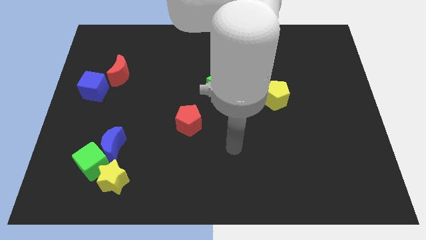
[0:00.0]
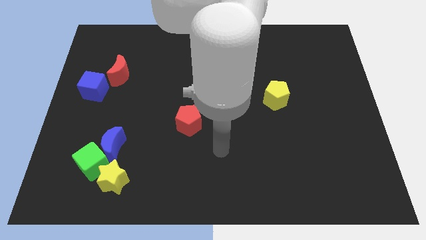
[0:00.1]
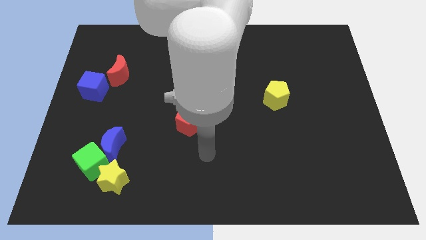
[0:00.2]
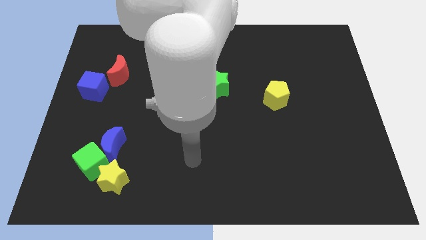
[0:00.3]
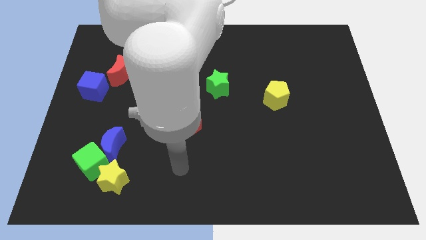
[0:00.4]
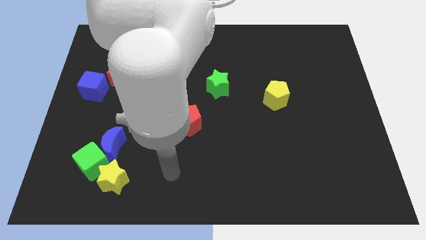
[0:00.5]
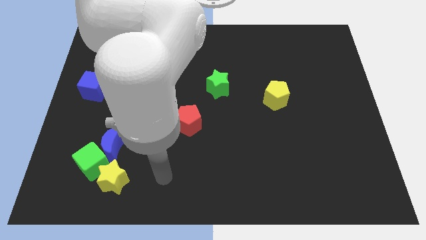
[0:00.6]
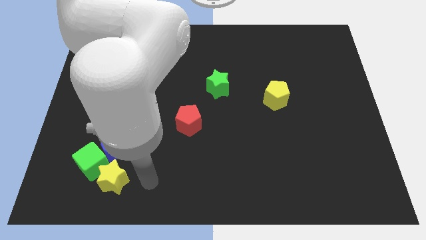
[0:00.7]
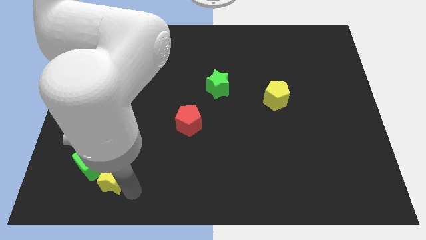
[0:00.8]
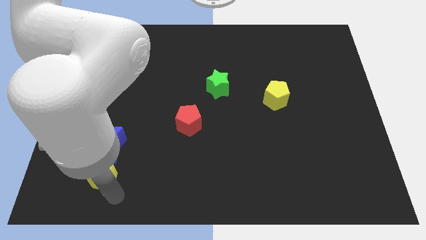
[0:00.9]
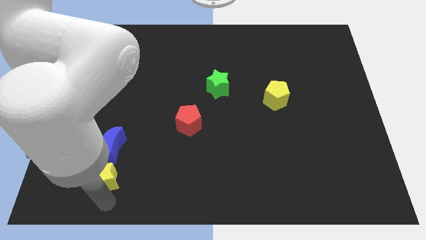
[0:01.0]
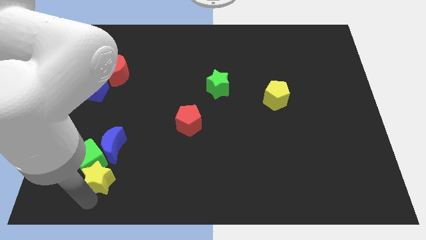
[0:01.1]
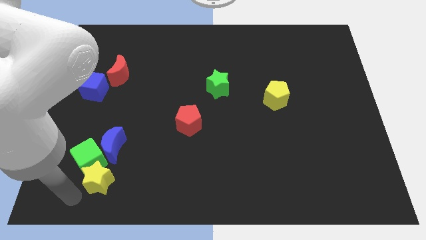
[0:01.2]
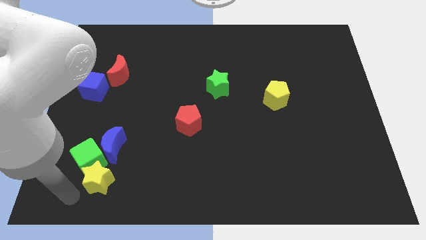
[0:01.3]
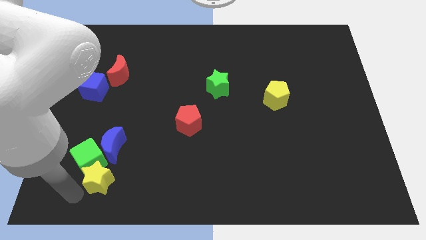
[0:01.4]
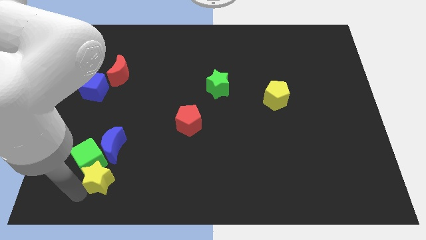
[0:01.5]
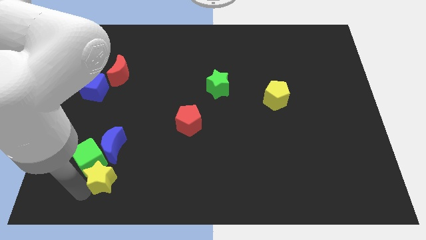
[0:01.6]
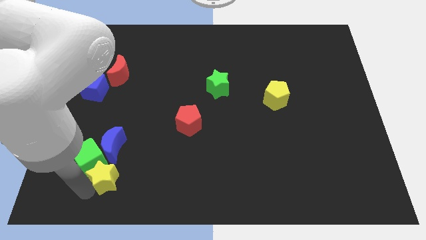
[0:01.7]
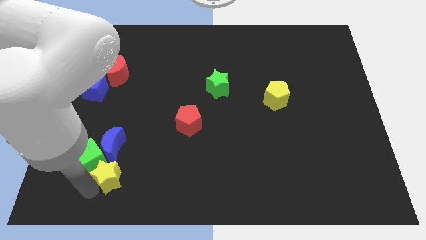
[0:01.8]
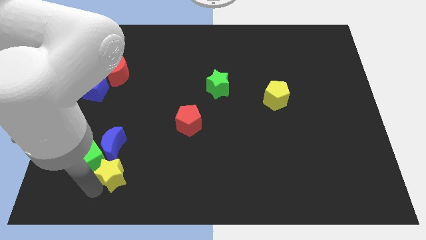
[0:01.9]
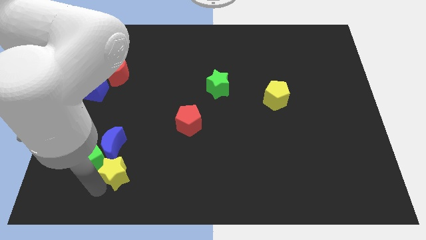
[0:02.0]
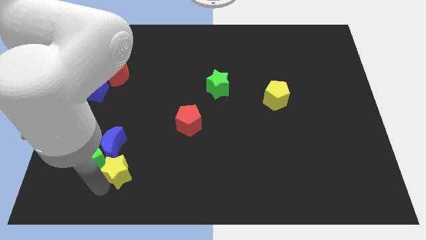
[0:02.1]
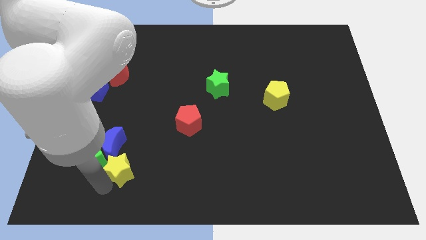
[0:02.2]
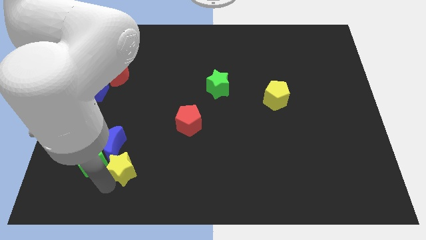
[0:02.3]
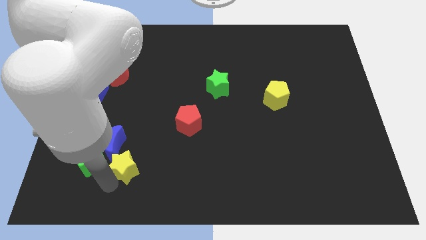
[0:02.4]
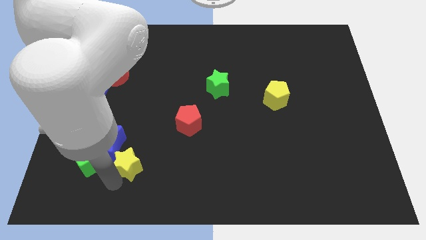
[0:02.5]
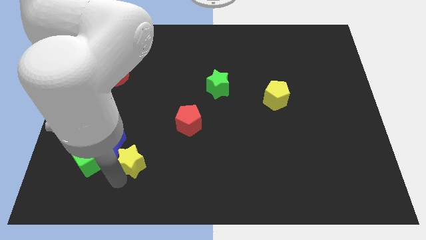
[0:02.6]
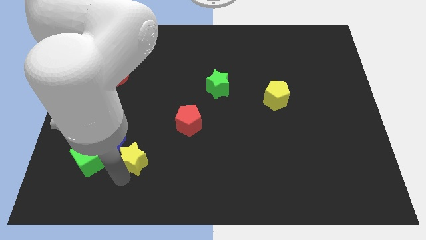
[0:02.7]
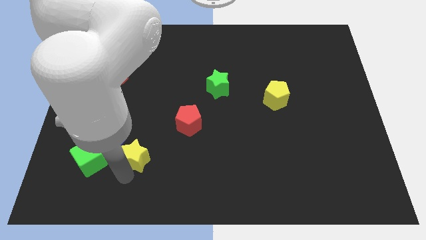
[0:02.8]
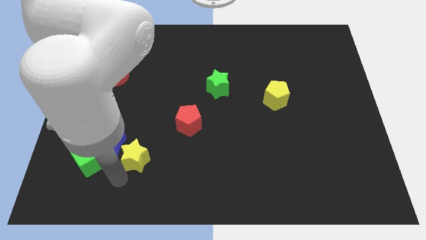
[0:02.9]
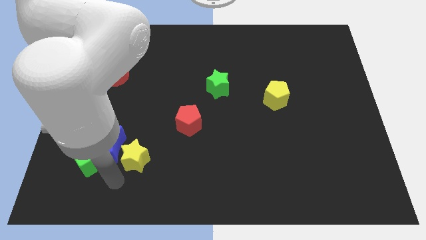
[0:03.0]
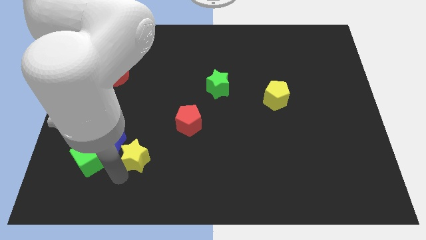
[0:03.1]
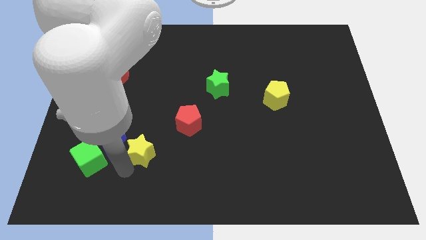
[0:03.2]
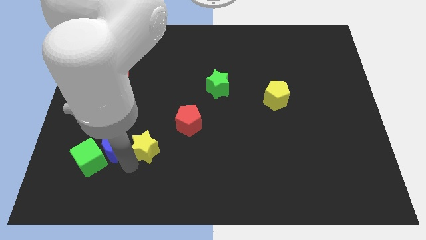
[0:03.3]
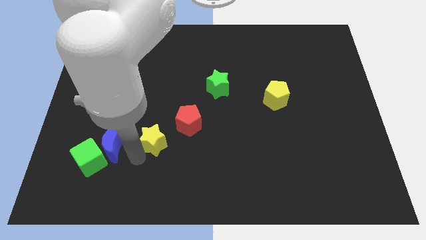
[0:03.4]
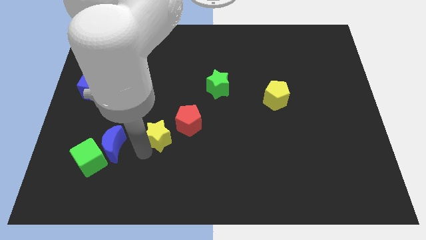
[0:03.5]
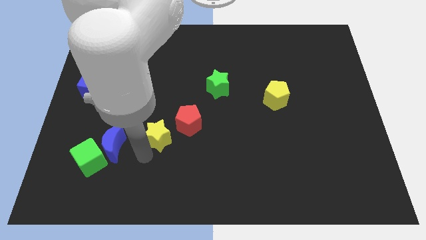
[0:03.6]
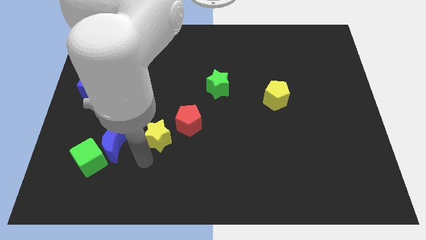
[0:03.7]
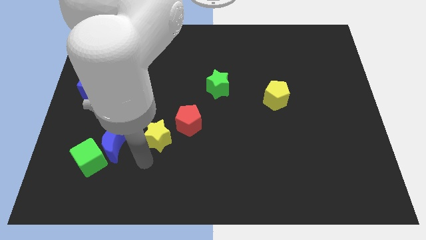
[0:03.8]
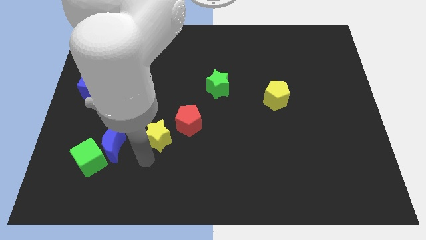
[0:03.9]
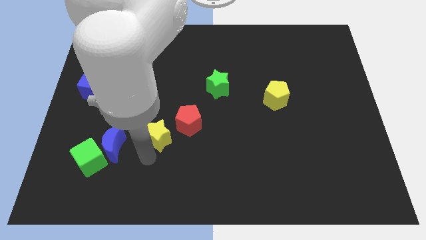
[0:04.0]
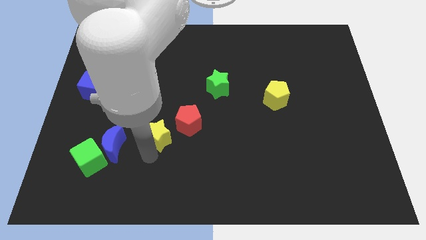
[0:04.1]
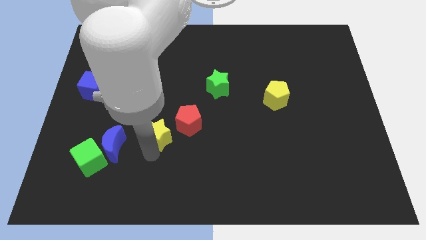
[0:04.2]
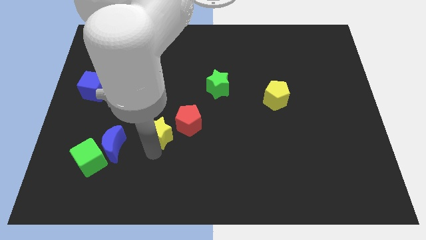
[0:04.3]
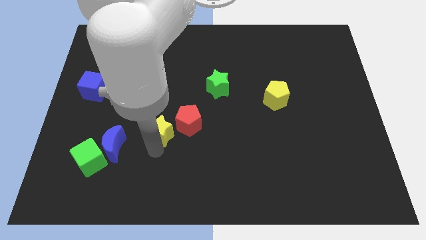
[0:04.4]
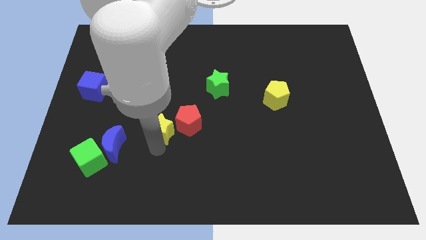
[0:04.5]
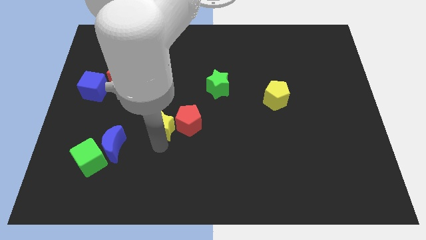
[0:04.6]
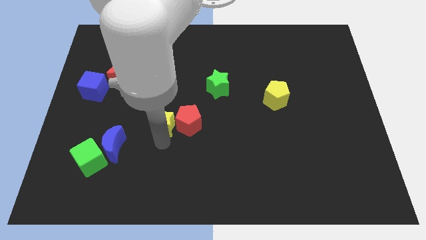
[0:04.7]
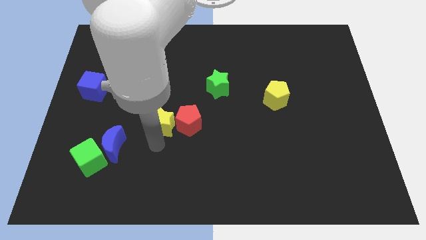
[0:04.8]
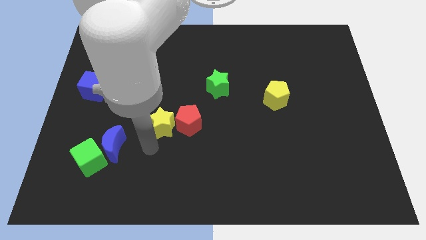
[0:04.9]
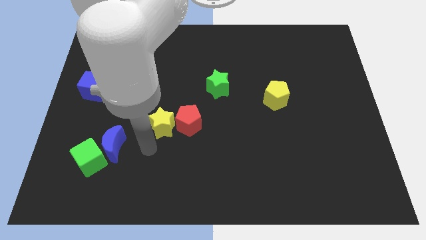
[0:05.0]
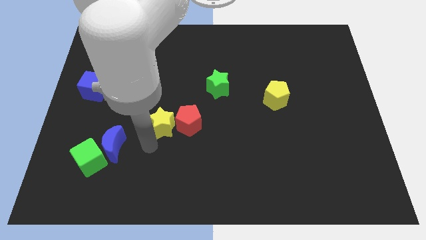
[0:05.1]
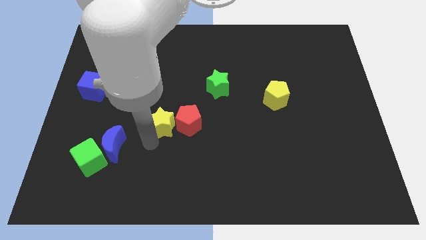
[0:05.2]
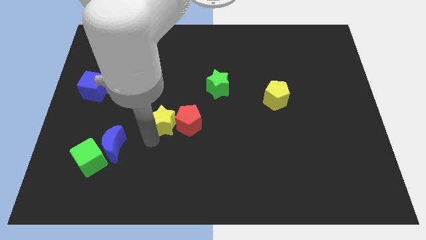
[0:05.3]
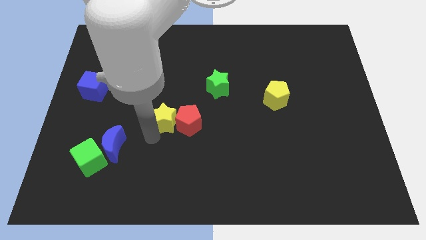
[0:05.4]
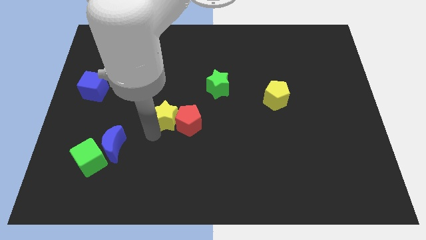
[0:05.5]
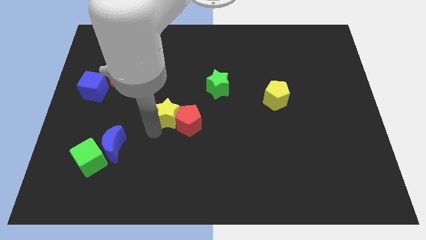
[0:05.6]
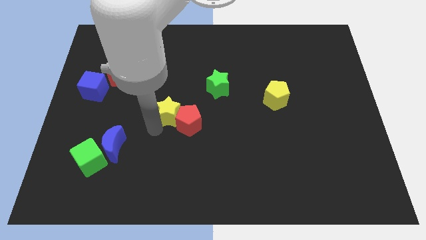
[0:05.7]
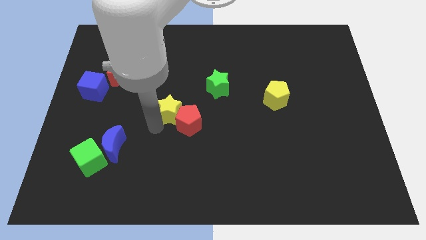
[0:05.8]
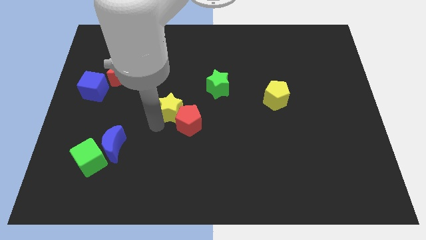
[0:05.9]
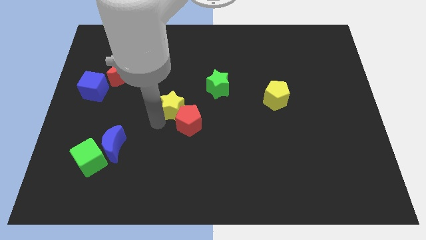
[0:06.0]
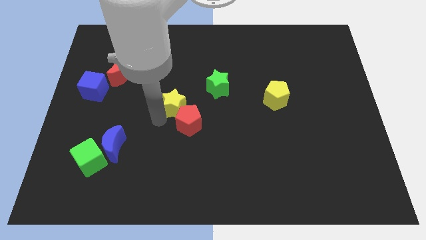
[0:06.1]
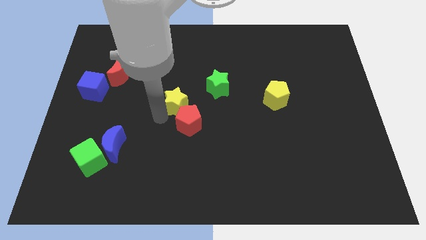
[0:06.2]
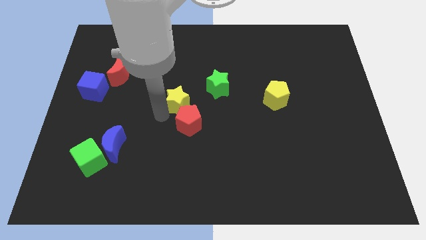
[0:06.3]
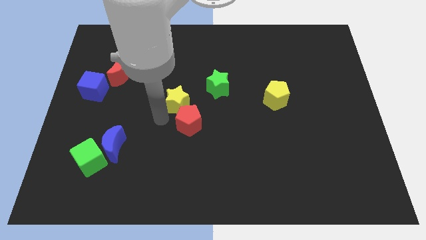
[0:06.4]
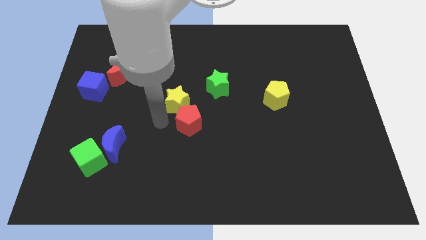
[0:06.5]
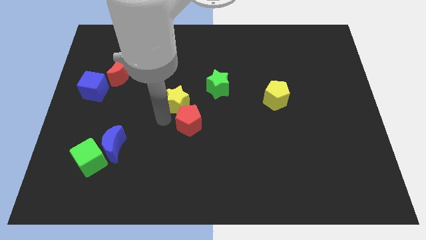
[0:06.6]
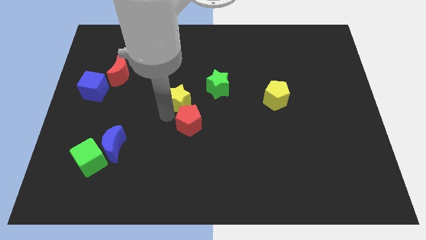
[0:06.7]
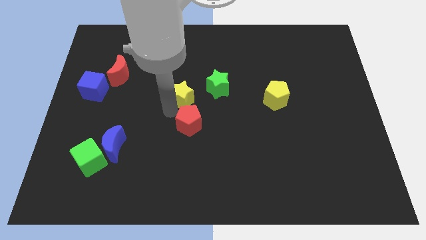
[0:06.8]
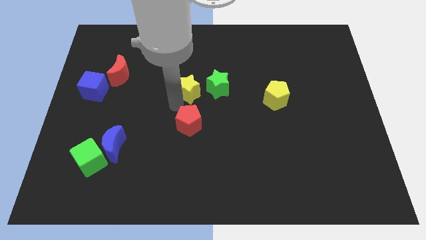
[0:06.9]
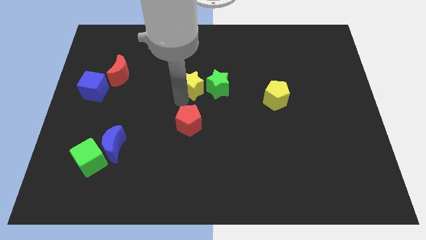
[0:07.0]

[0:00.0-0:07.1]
slide the yellow star to the top left of the green star

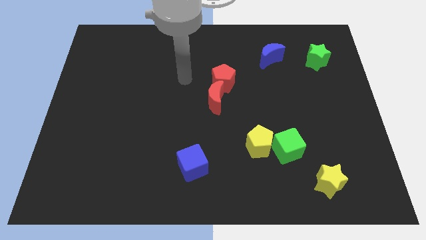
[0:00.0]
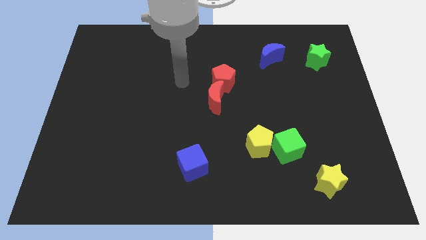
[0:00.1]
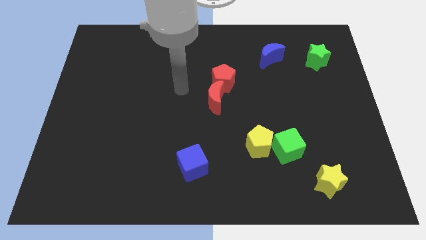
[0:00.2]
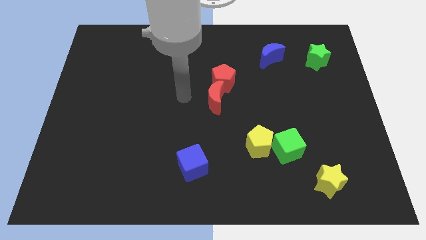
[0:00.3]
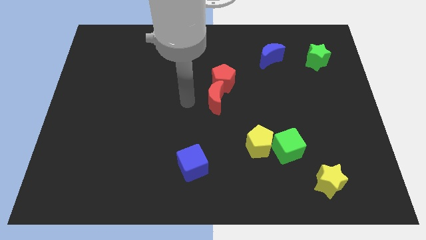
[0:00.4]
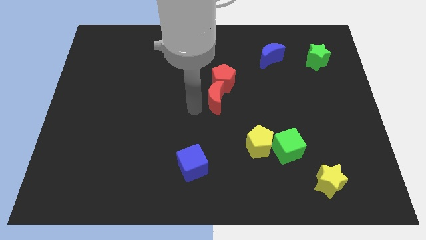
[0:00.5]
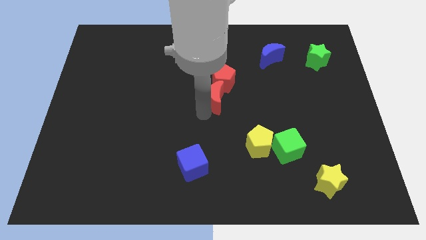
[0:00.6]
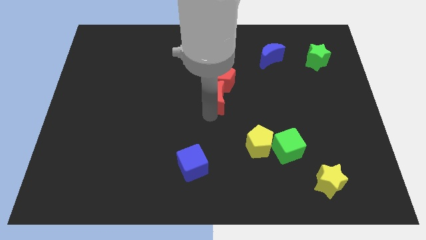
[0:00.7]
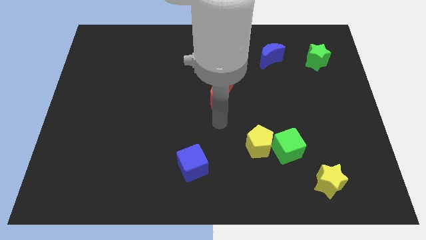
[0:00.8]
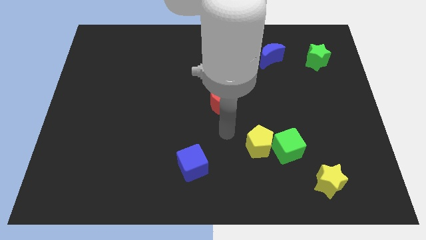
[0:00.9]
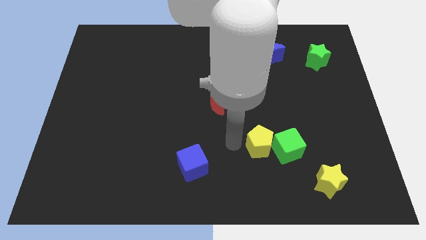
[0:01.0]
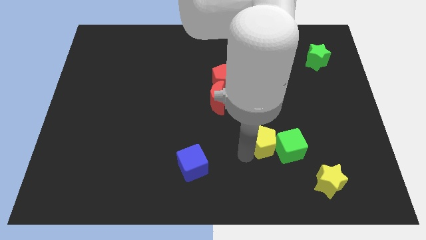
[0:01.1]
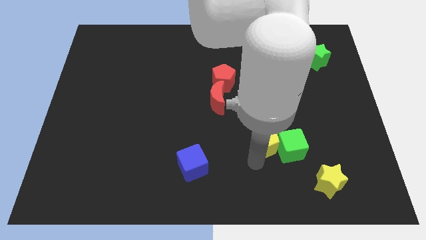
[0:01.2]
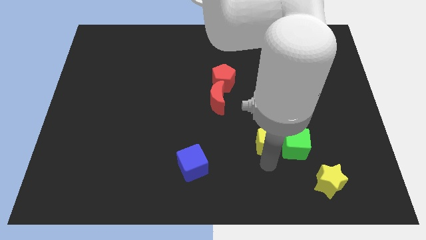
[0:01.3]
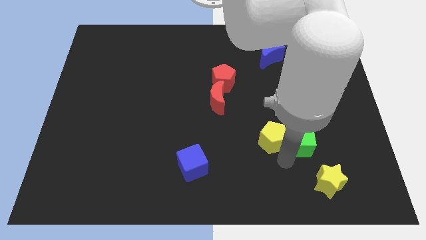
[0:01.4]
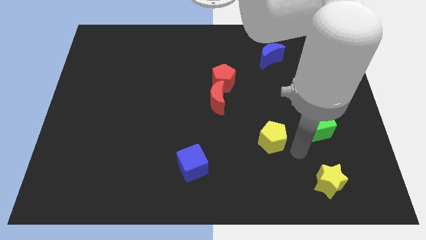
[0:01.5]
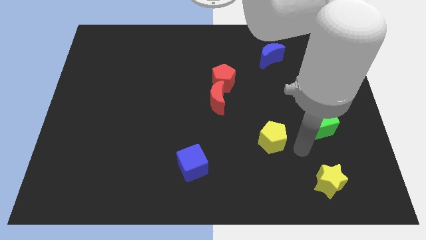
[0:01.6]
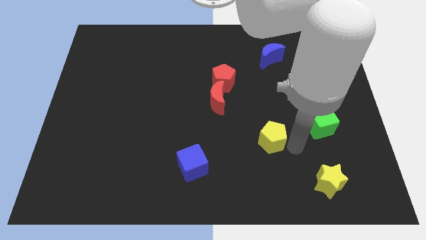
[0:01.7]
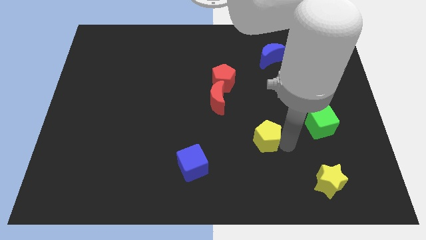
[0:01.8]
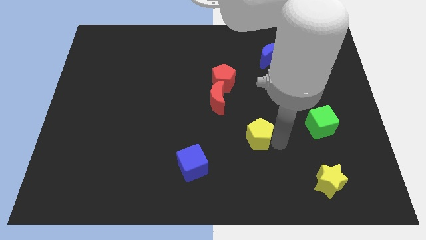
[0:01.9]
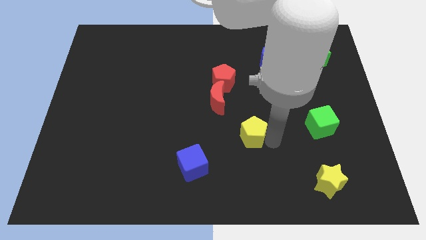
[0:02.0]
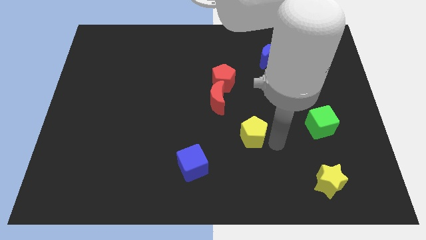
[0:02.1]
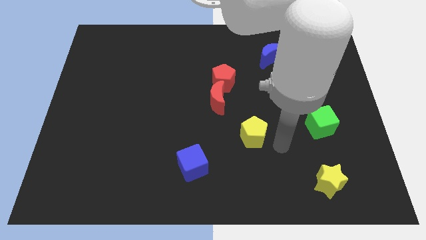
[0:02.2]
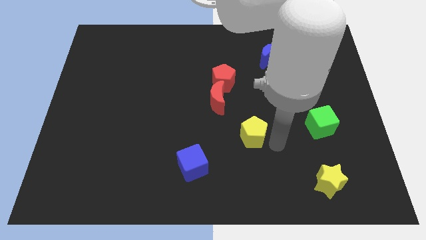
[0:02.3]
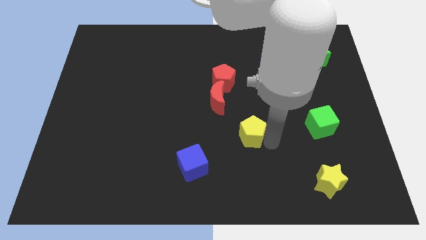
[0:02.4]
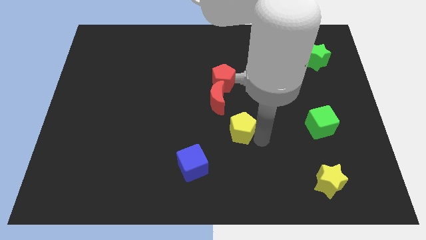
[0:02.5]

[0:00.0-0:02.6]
push the yellow pentagon to the bottom side of the red pentagon
